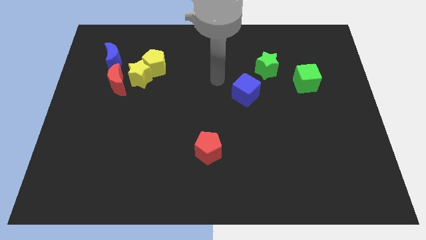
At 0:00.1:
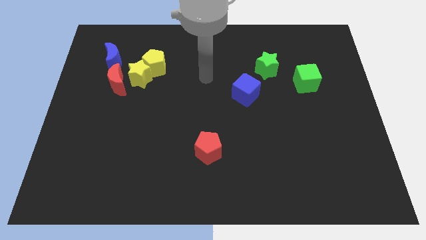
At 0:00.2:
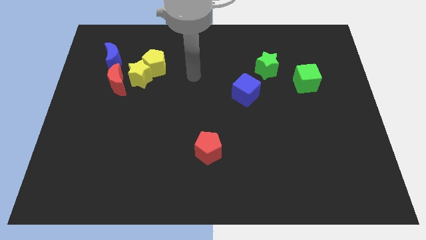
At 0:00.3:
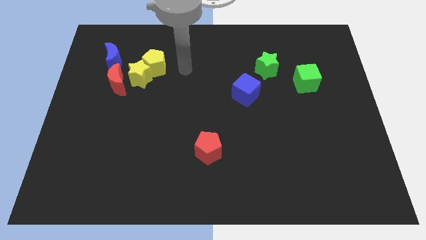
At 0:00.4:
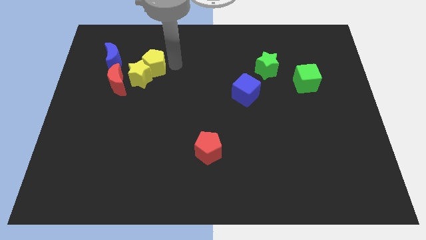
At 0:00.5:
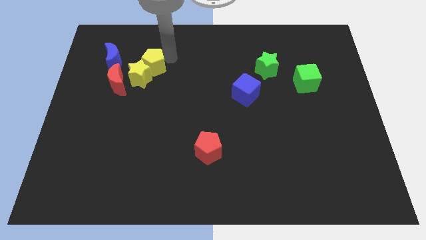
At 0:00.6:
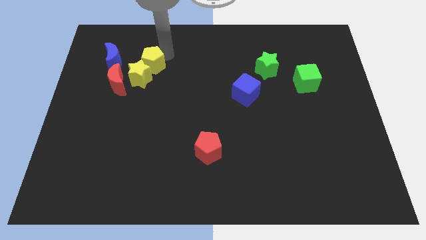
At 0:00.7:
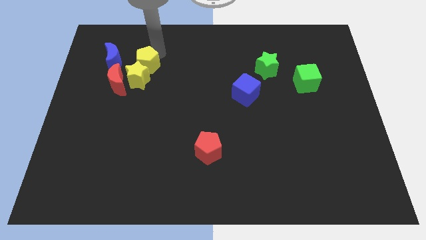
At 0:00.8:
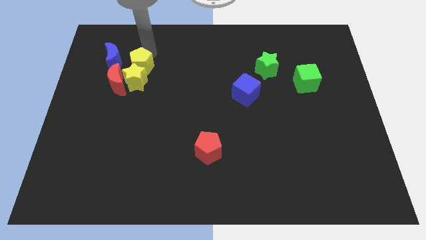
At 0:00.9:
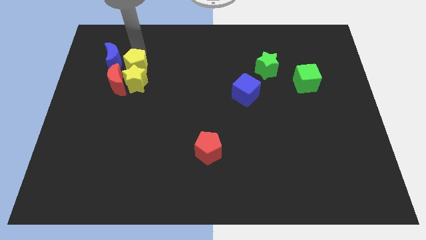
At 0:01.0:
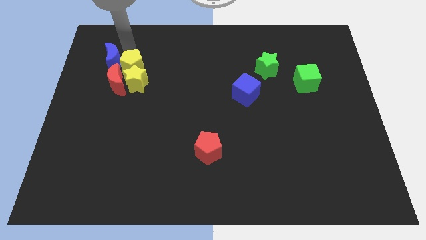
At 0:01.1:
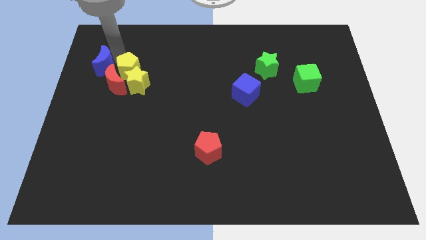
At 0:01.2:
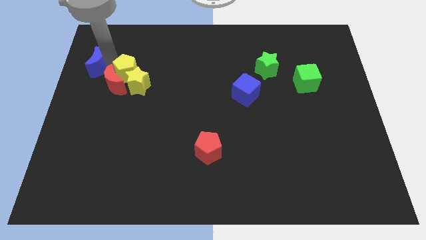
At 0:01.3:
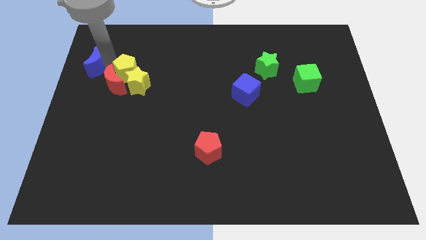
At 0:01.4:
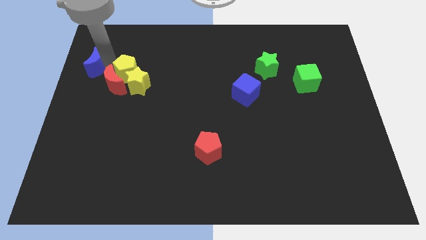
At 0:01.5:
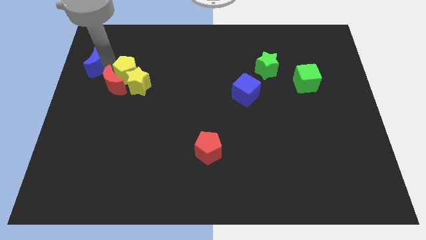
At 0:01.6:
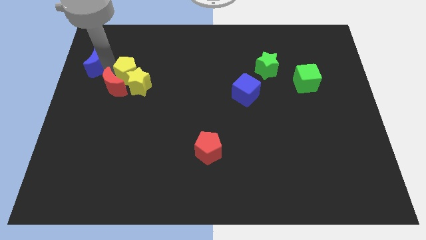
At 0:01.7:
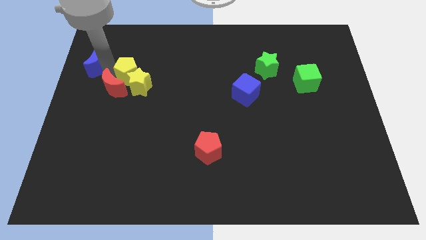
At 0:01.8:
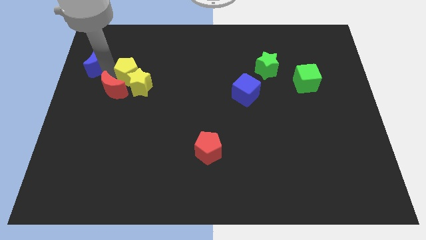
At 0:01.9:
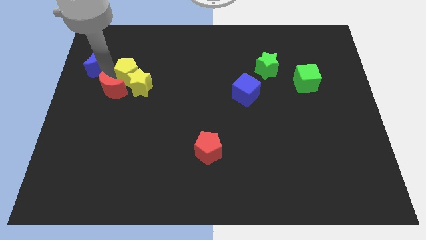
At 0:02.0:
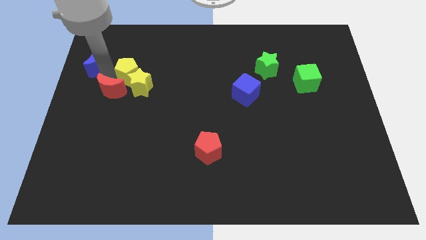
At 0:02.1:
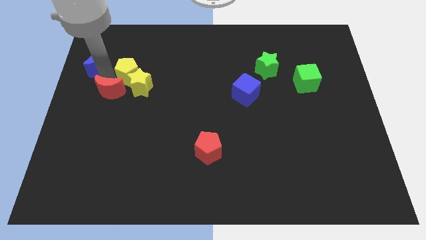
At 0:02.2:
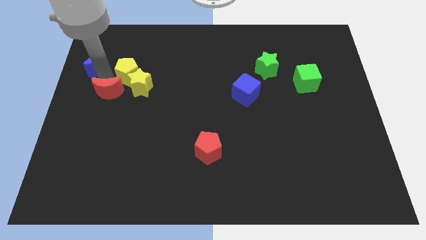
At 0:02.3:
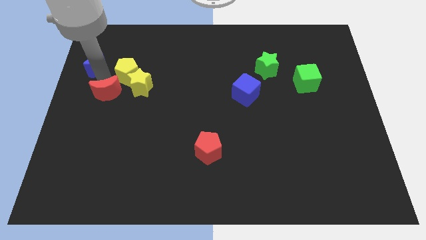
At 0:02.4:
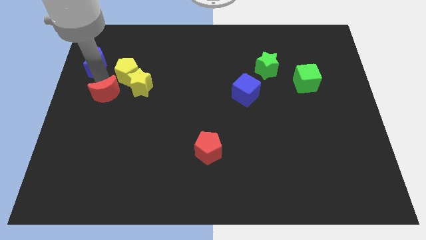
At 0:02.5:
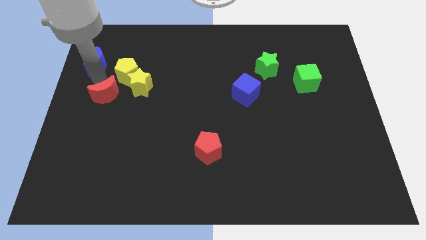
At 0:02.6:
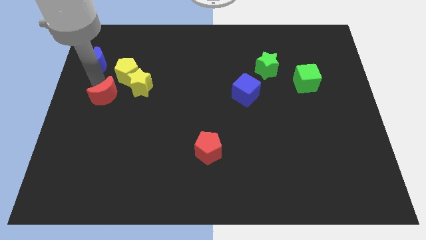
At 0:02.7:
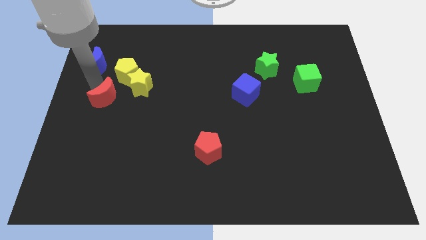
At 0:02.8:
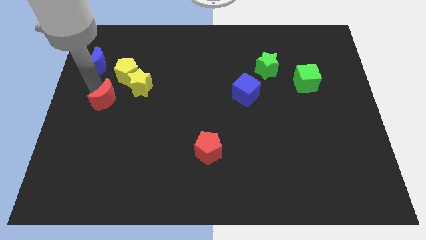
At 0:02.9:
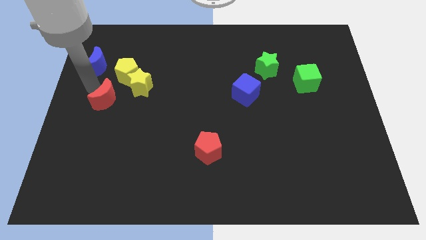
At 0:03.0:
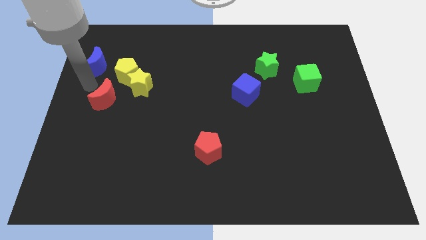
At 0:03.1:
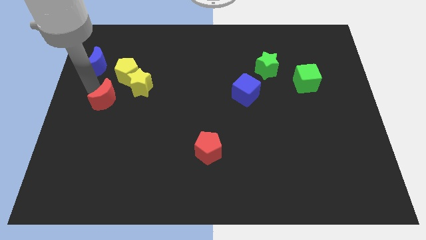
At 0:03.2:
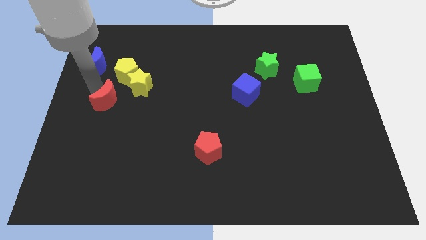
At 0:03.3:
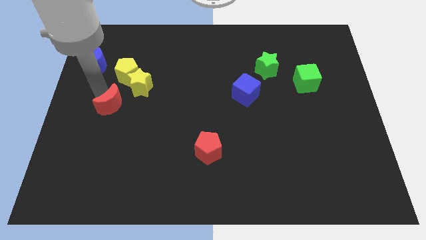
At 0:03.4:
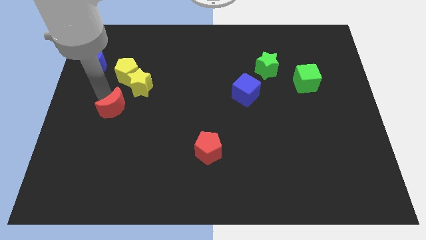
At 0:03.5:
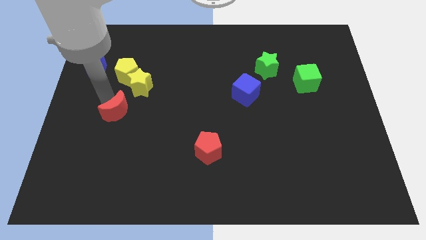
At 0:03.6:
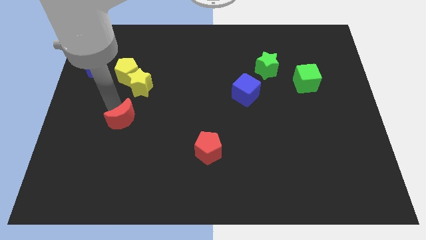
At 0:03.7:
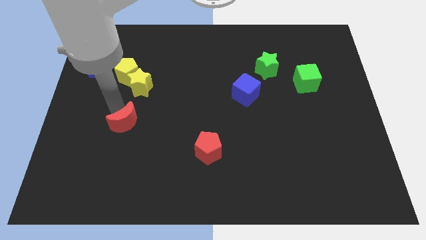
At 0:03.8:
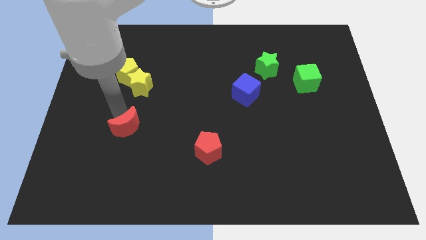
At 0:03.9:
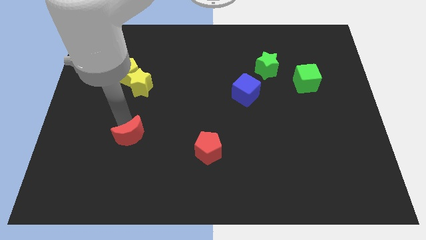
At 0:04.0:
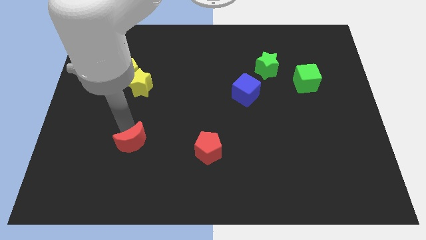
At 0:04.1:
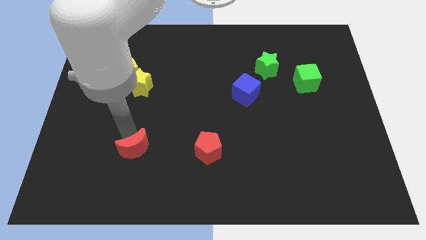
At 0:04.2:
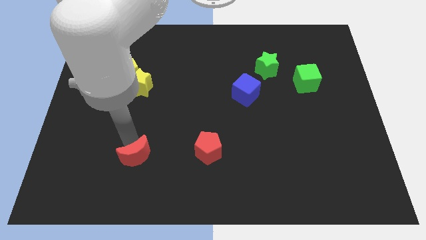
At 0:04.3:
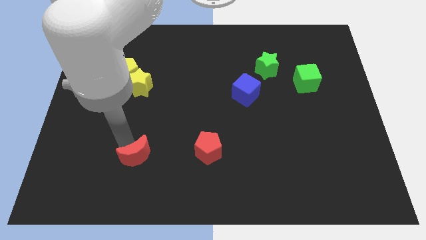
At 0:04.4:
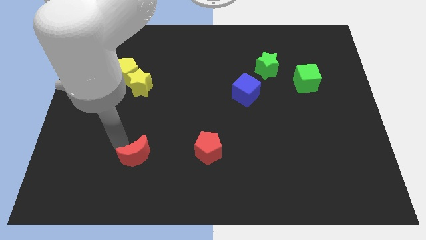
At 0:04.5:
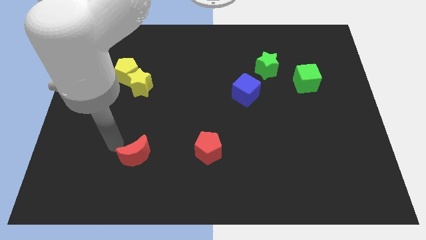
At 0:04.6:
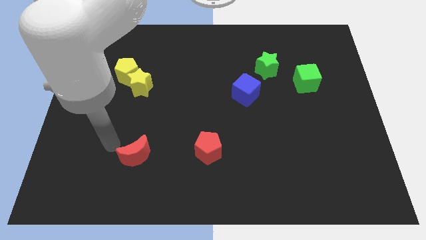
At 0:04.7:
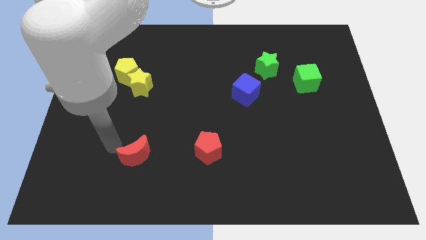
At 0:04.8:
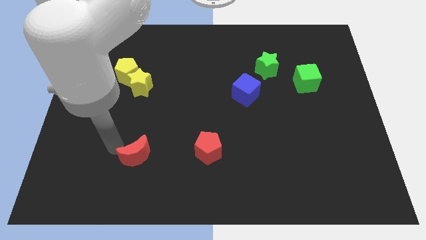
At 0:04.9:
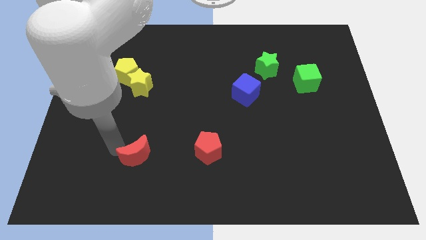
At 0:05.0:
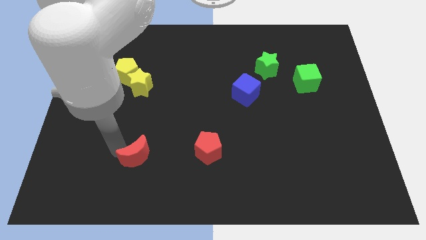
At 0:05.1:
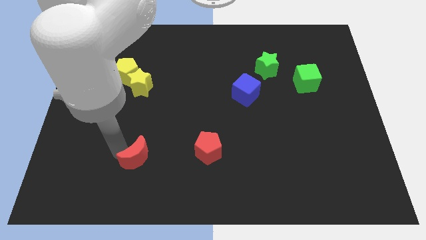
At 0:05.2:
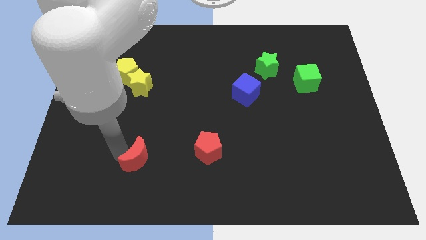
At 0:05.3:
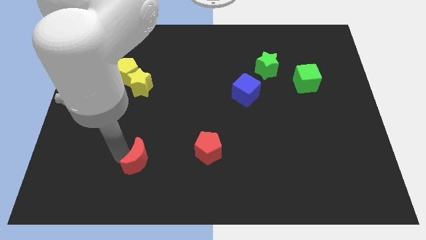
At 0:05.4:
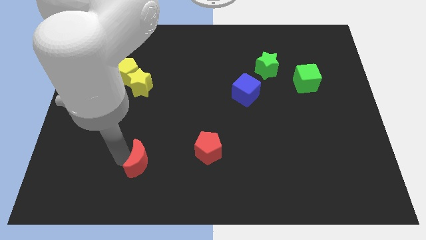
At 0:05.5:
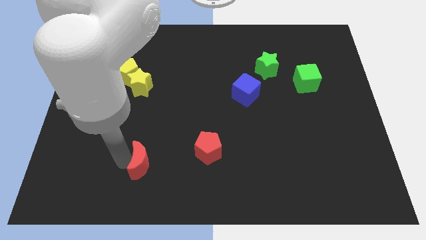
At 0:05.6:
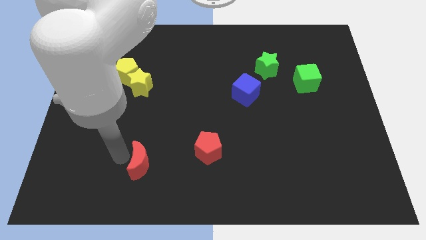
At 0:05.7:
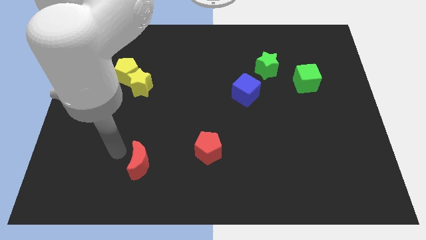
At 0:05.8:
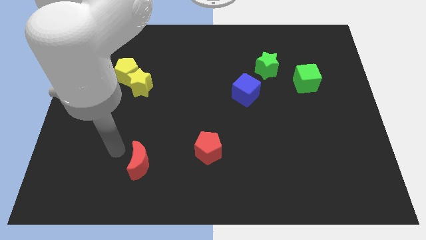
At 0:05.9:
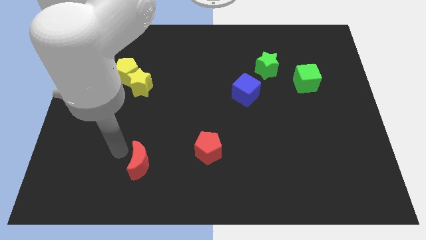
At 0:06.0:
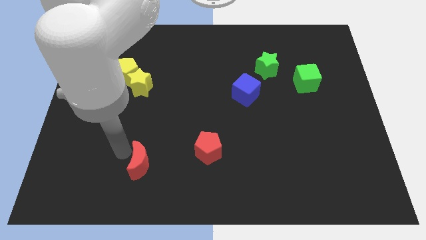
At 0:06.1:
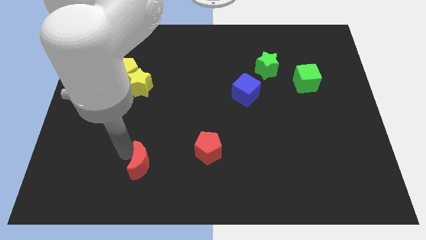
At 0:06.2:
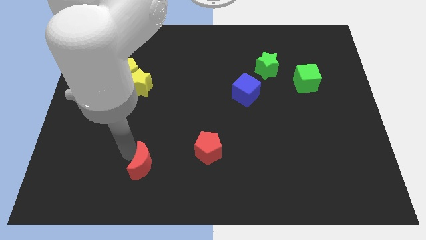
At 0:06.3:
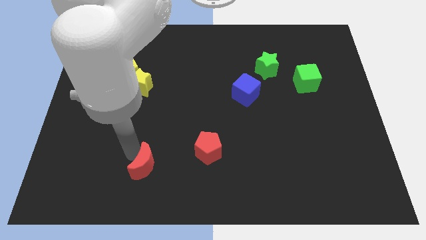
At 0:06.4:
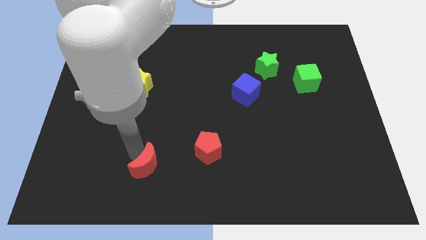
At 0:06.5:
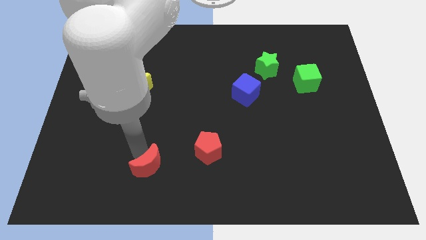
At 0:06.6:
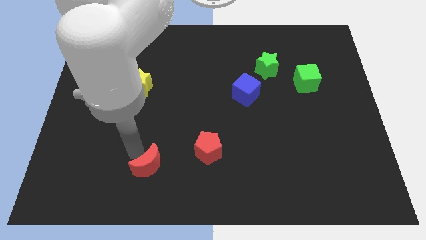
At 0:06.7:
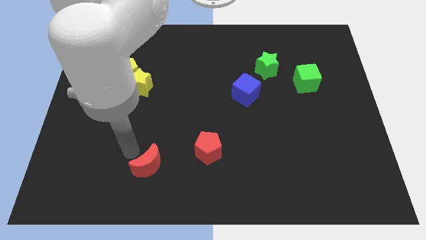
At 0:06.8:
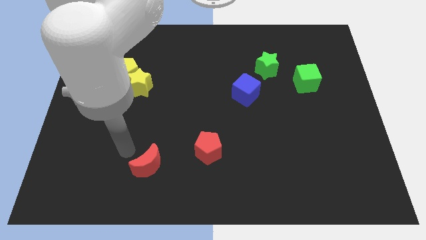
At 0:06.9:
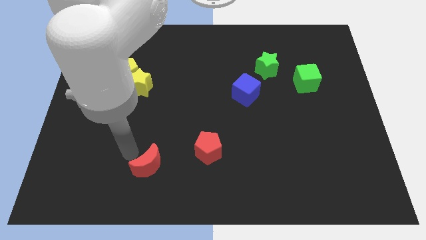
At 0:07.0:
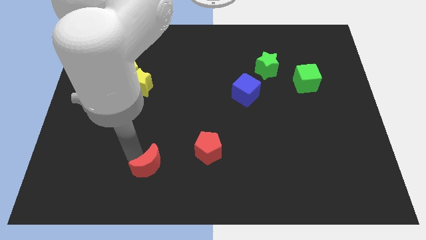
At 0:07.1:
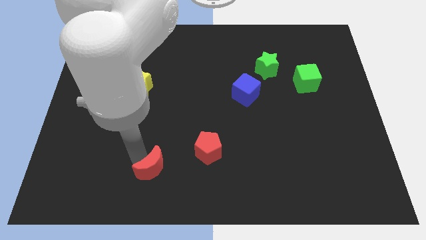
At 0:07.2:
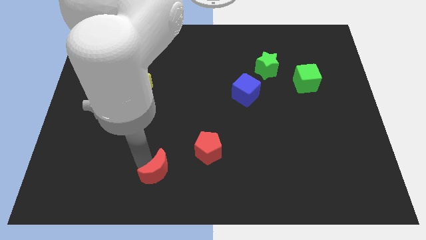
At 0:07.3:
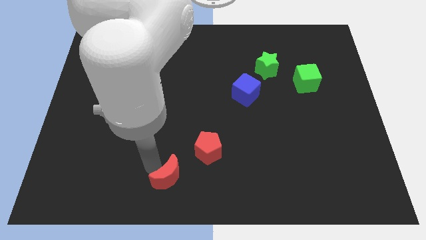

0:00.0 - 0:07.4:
put the red moon to the bottom
